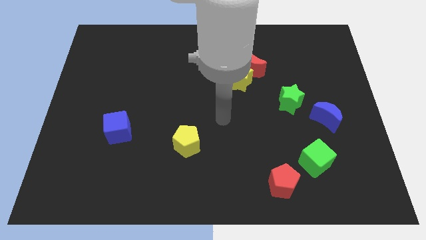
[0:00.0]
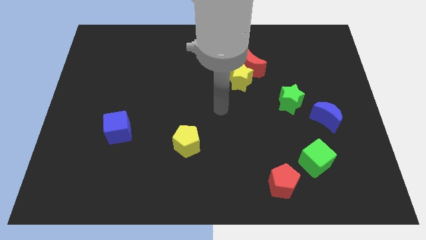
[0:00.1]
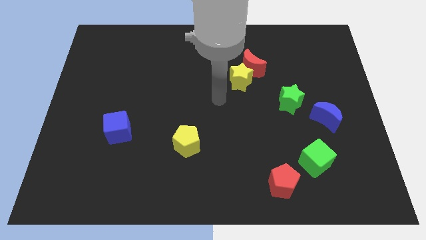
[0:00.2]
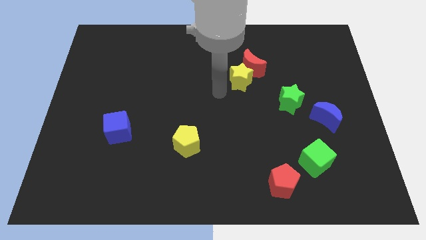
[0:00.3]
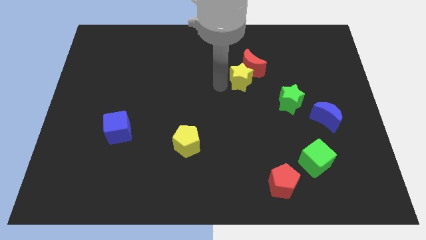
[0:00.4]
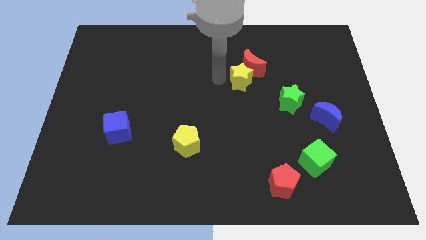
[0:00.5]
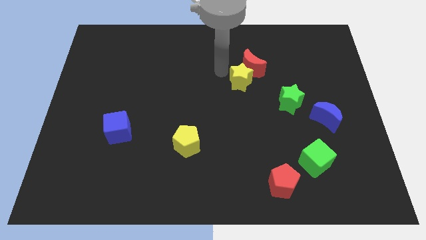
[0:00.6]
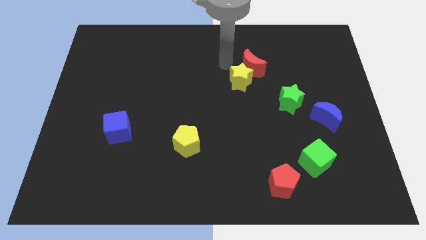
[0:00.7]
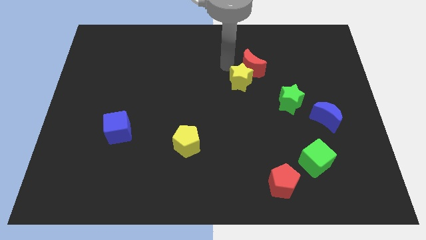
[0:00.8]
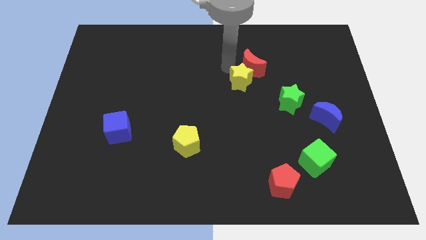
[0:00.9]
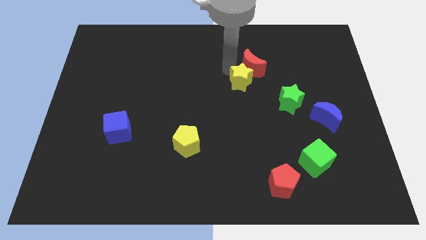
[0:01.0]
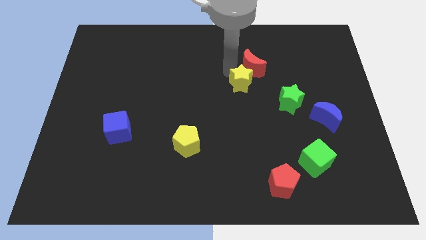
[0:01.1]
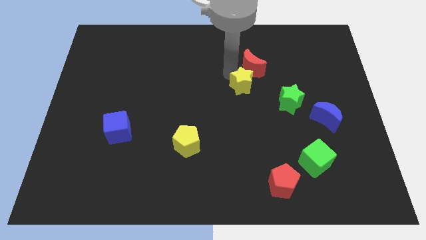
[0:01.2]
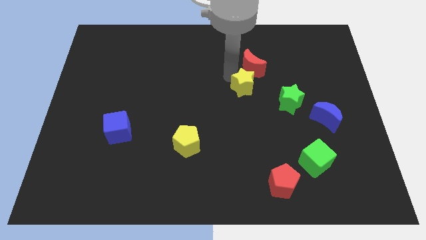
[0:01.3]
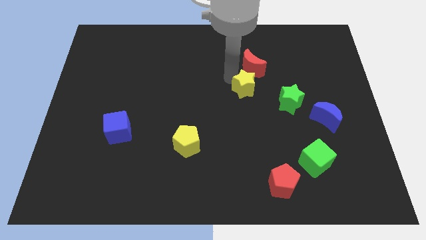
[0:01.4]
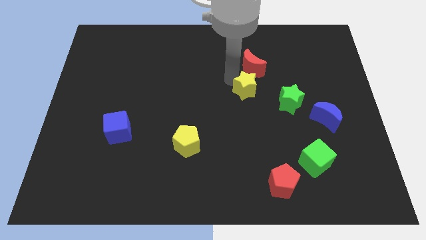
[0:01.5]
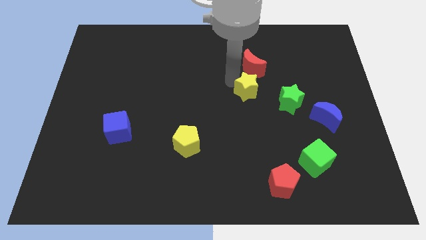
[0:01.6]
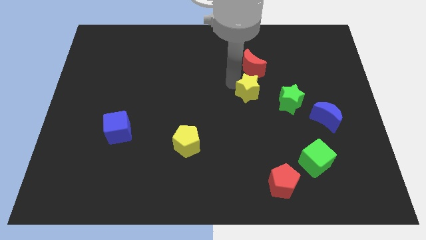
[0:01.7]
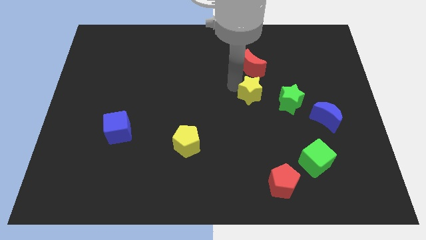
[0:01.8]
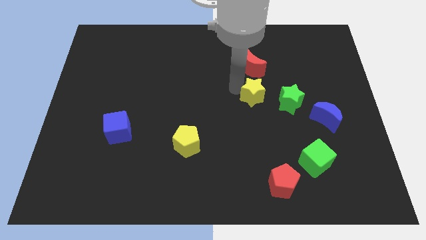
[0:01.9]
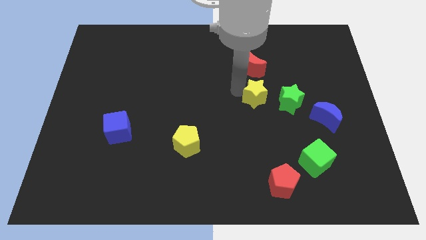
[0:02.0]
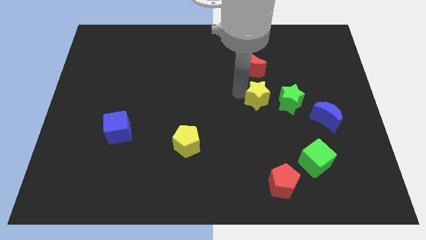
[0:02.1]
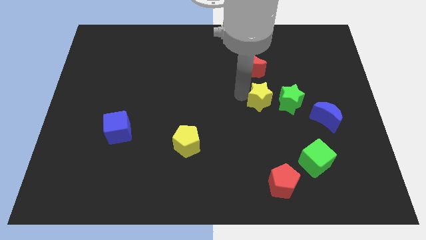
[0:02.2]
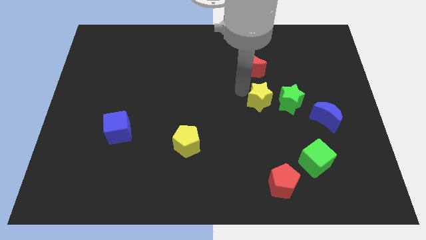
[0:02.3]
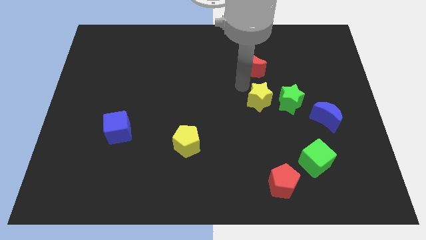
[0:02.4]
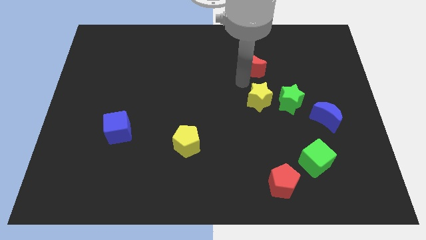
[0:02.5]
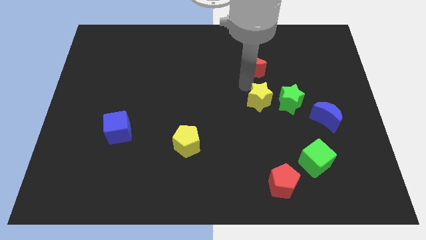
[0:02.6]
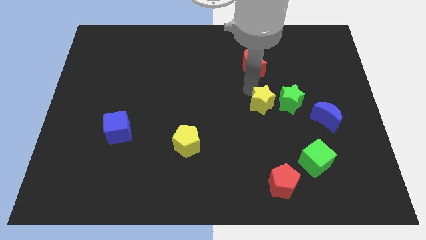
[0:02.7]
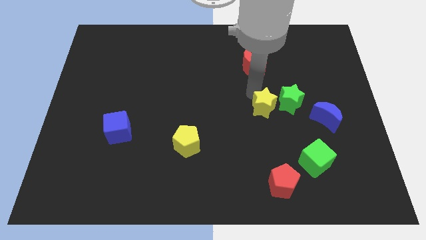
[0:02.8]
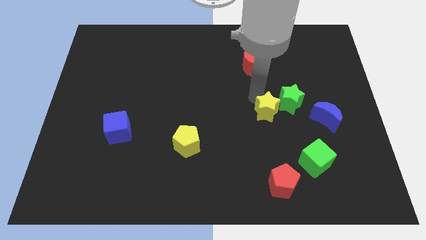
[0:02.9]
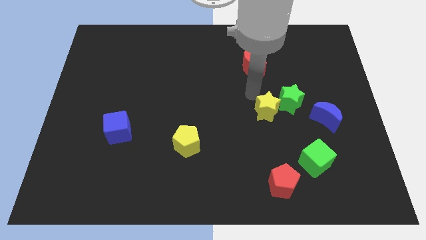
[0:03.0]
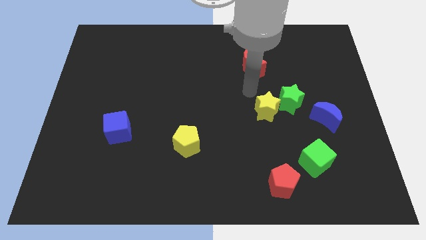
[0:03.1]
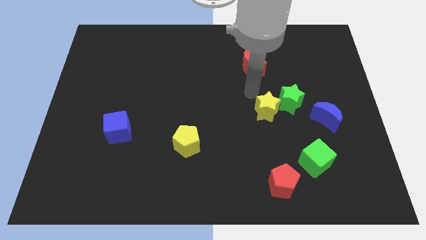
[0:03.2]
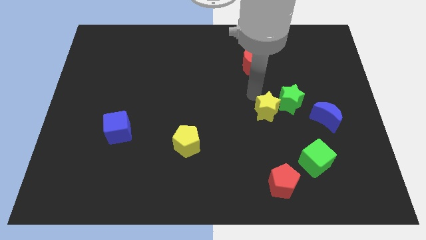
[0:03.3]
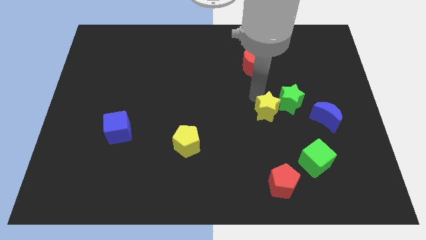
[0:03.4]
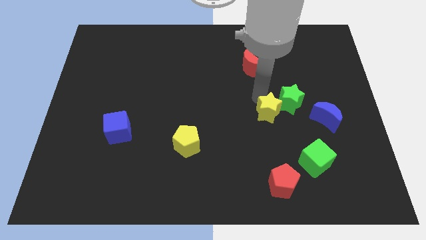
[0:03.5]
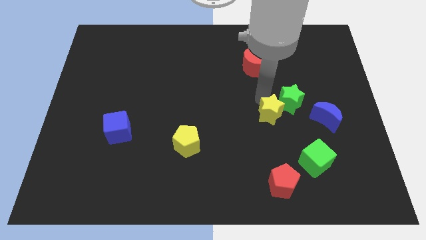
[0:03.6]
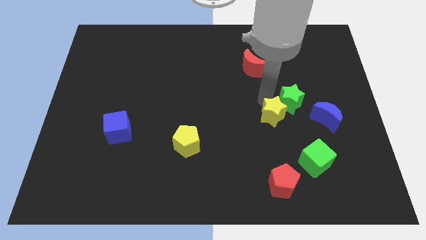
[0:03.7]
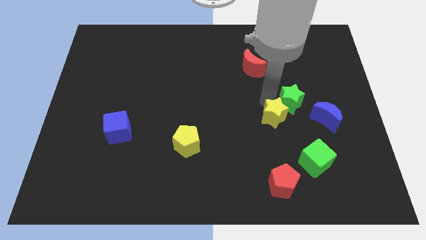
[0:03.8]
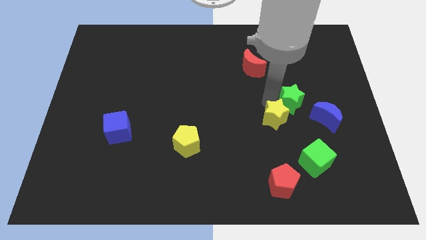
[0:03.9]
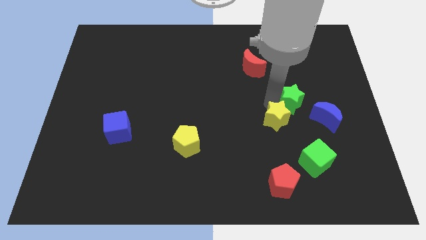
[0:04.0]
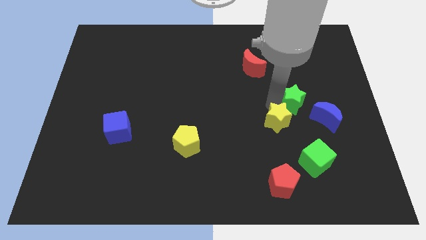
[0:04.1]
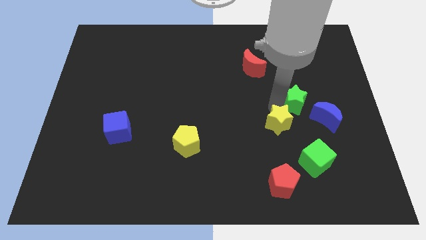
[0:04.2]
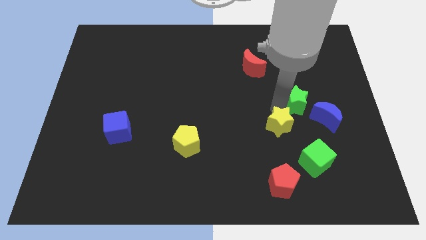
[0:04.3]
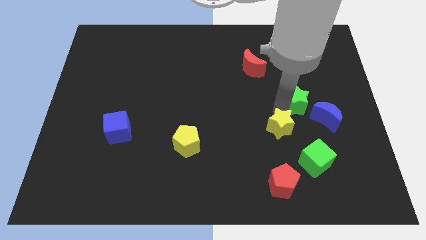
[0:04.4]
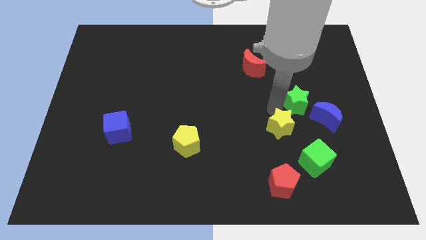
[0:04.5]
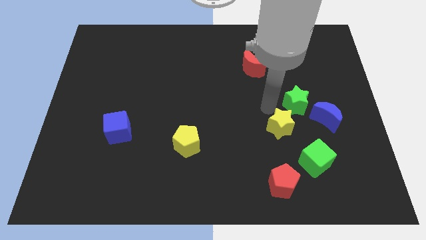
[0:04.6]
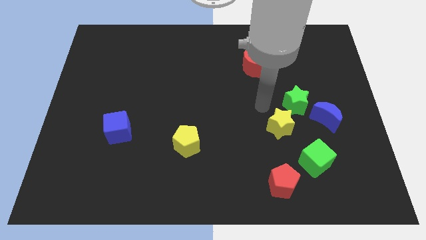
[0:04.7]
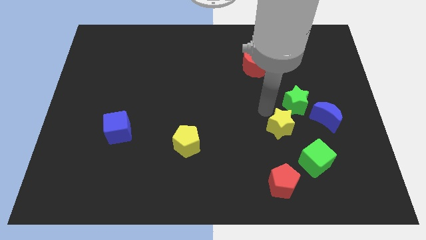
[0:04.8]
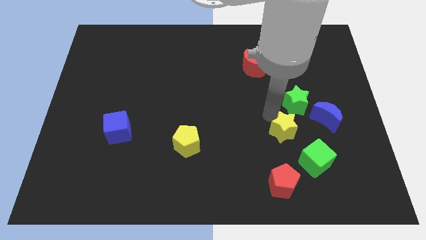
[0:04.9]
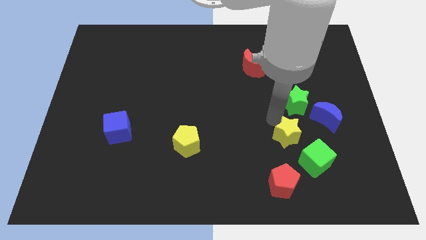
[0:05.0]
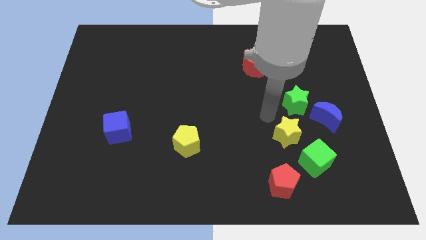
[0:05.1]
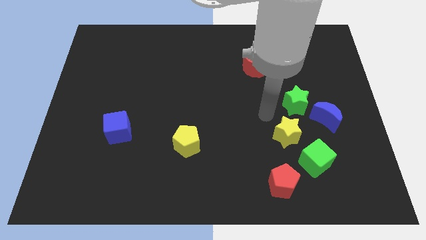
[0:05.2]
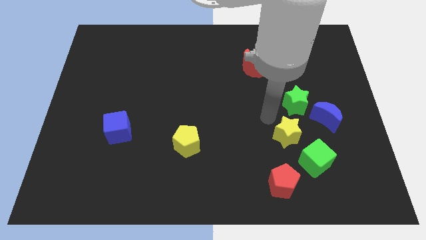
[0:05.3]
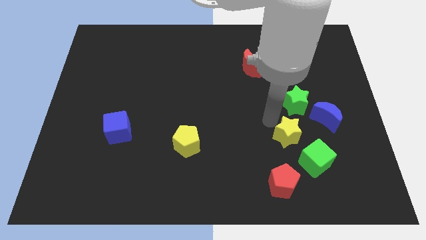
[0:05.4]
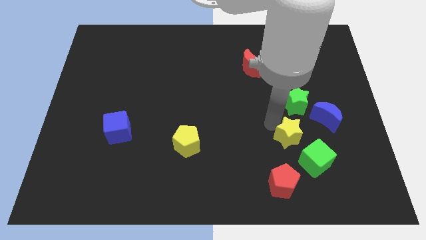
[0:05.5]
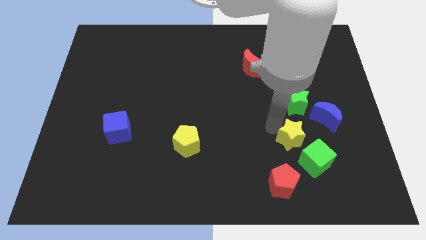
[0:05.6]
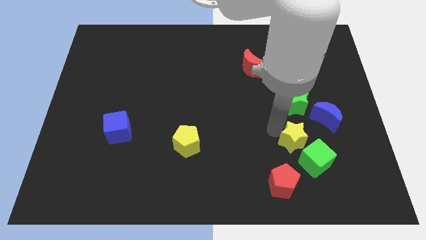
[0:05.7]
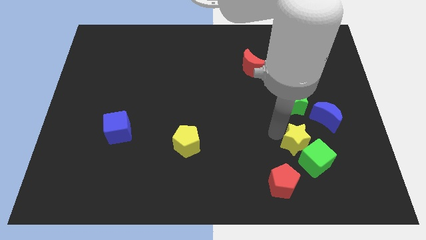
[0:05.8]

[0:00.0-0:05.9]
push the yellow star next to the green cube

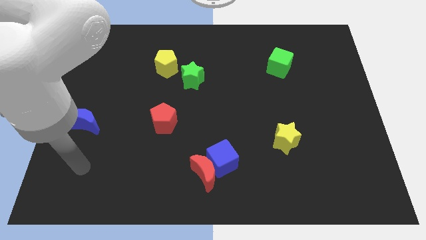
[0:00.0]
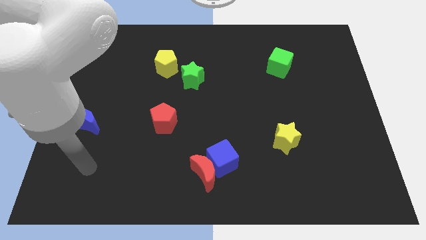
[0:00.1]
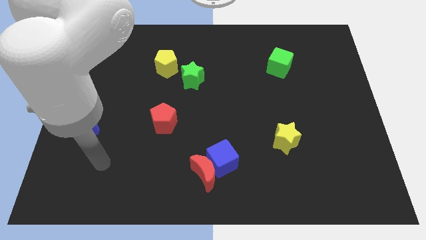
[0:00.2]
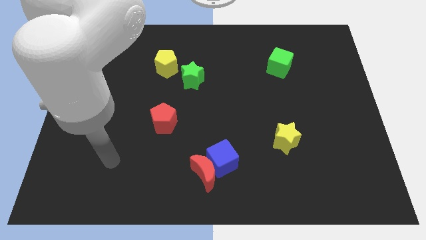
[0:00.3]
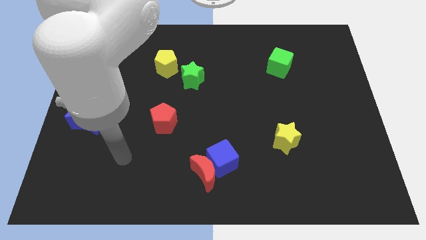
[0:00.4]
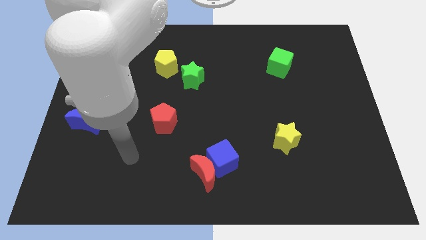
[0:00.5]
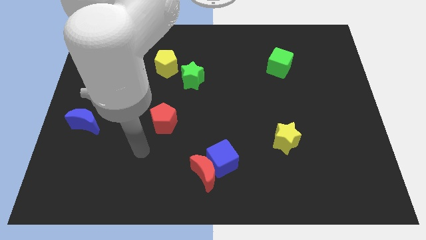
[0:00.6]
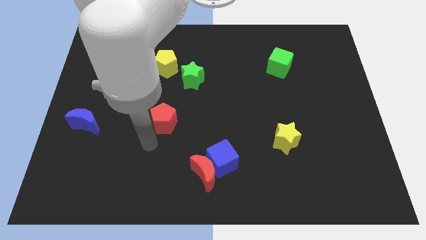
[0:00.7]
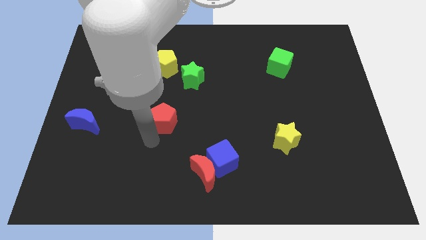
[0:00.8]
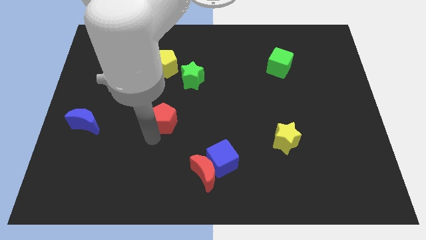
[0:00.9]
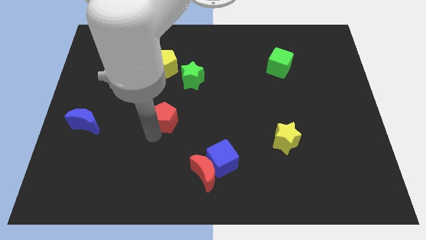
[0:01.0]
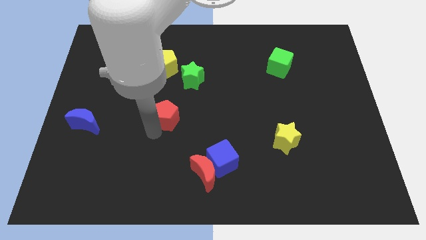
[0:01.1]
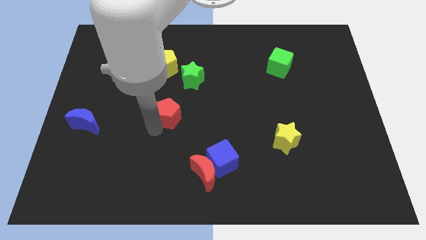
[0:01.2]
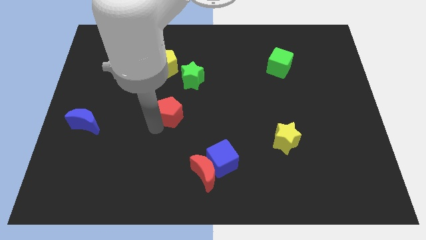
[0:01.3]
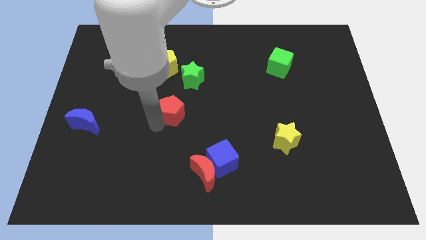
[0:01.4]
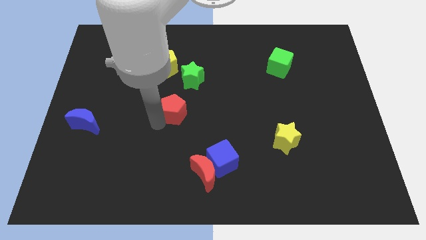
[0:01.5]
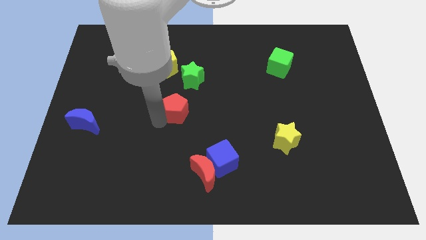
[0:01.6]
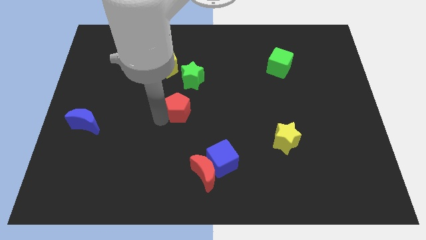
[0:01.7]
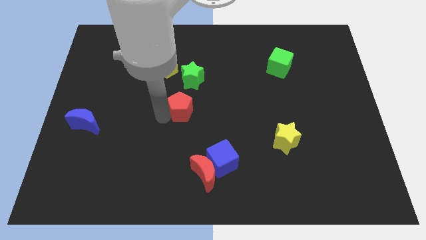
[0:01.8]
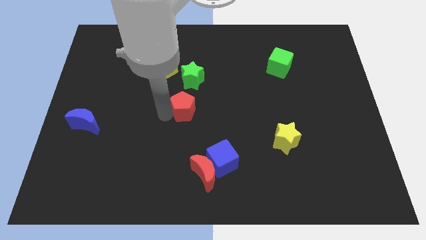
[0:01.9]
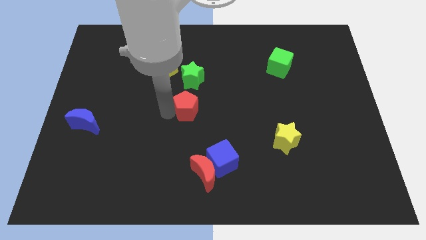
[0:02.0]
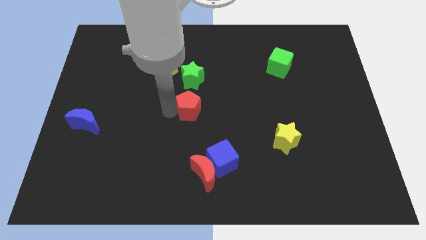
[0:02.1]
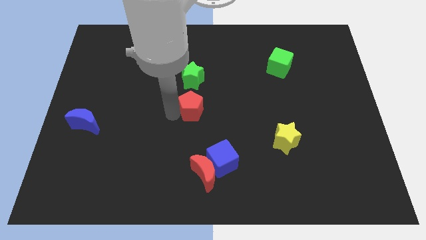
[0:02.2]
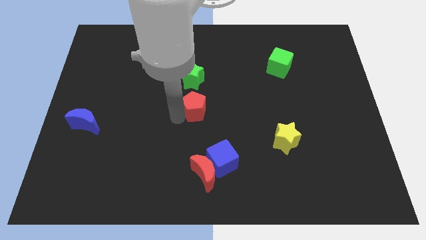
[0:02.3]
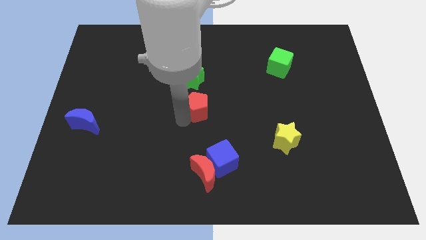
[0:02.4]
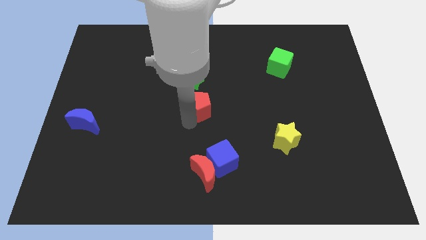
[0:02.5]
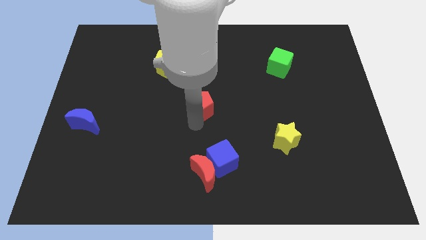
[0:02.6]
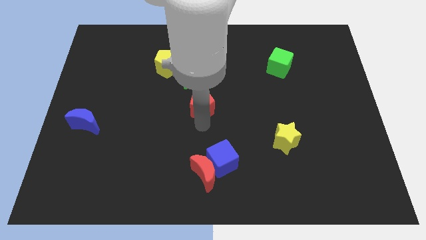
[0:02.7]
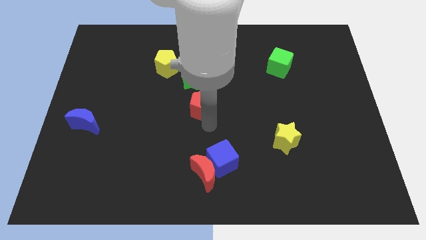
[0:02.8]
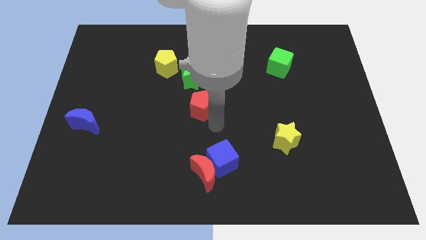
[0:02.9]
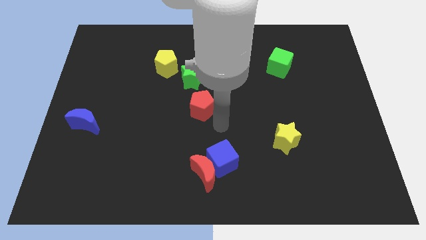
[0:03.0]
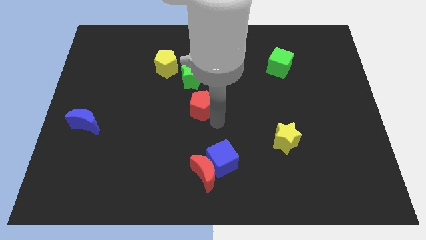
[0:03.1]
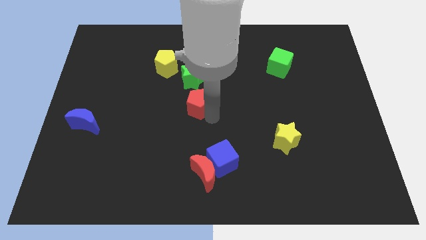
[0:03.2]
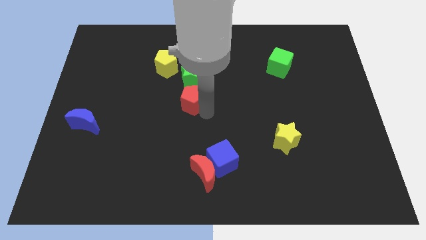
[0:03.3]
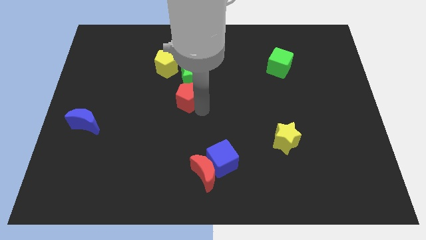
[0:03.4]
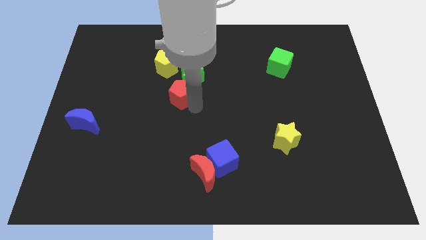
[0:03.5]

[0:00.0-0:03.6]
put the red pentagon next to the green star
